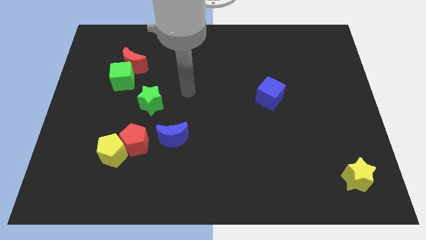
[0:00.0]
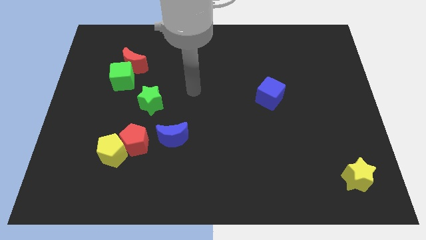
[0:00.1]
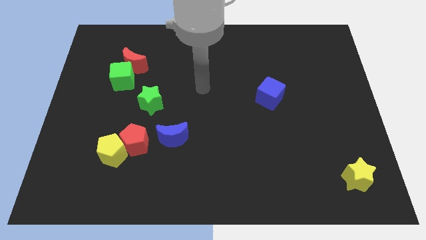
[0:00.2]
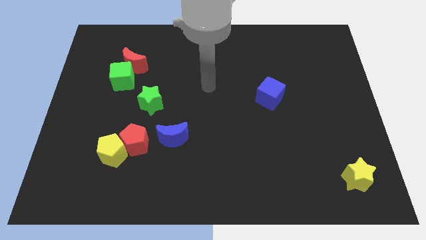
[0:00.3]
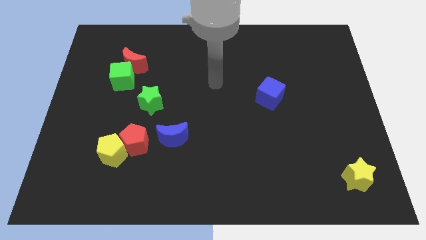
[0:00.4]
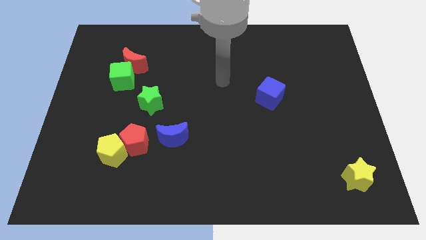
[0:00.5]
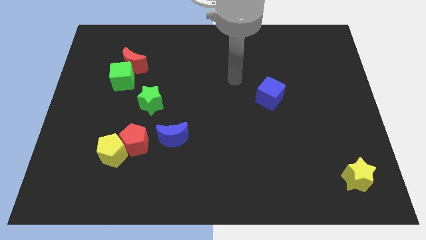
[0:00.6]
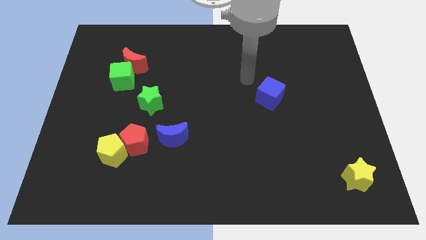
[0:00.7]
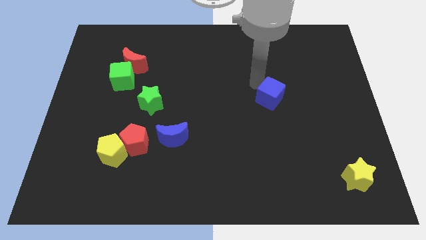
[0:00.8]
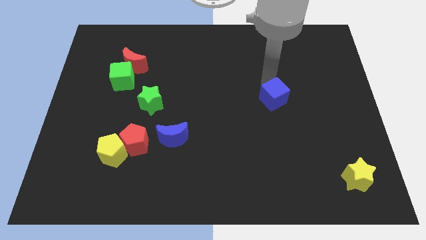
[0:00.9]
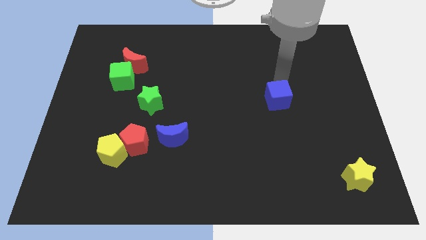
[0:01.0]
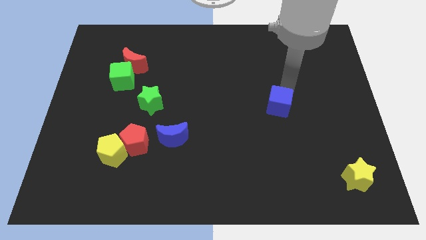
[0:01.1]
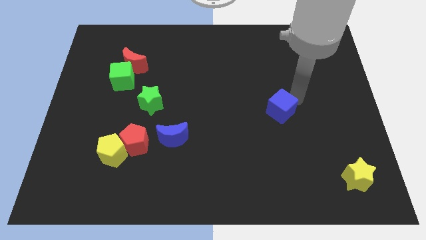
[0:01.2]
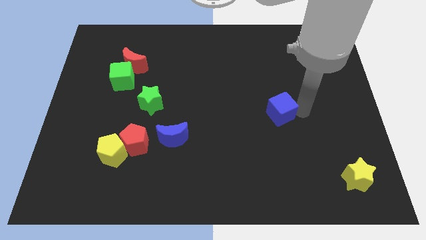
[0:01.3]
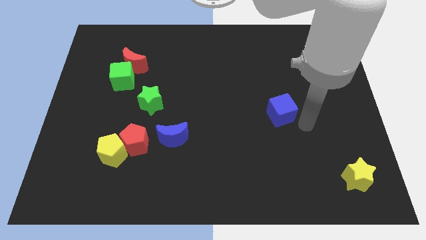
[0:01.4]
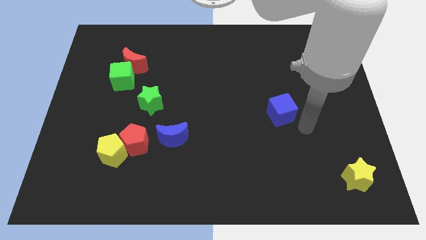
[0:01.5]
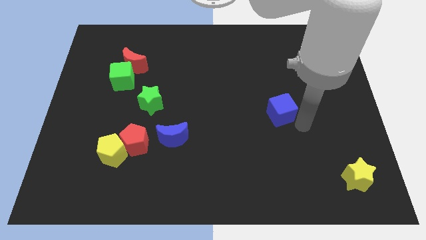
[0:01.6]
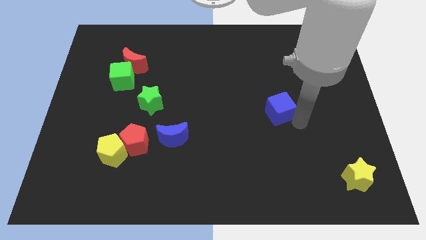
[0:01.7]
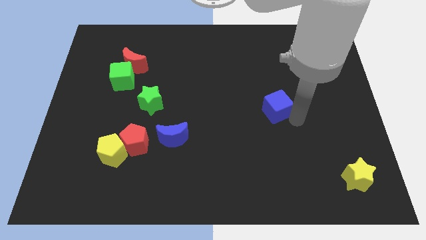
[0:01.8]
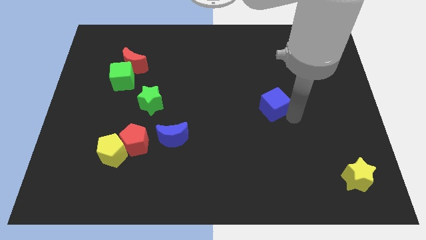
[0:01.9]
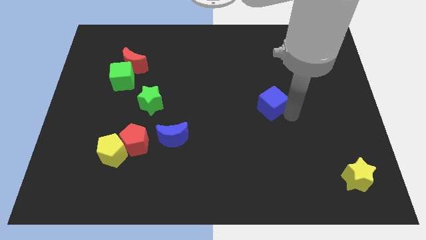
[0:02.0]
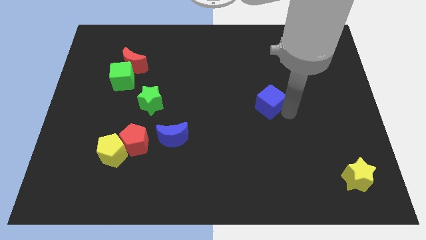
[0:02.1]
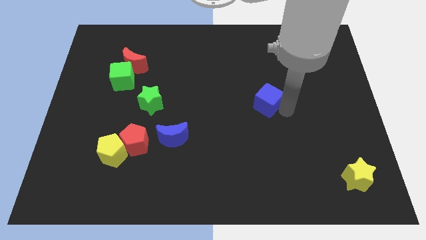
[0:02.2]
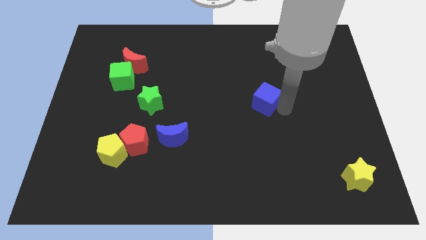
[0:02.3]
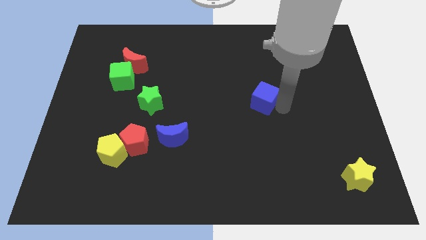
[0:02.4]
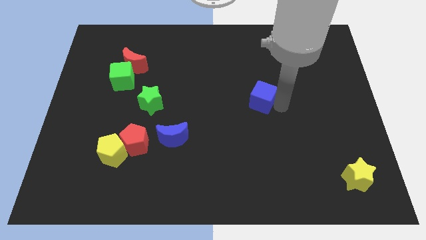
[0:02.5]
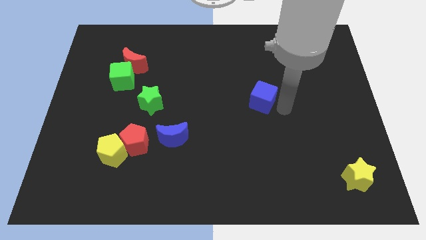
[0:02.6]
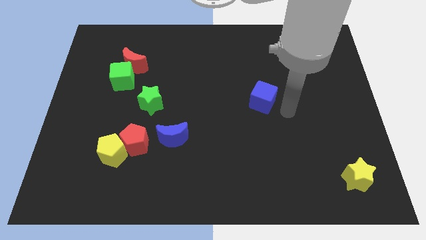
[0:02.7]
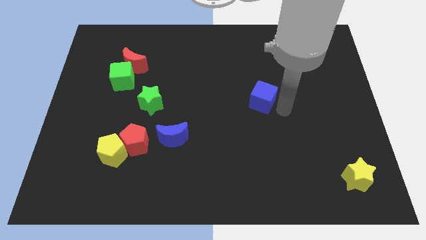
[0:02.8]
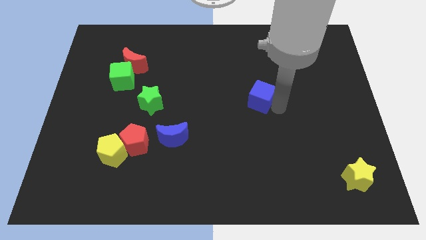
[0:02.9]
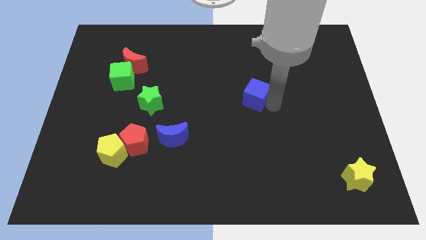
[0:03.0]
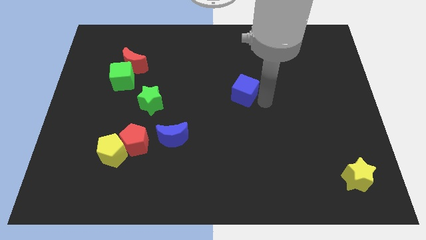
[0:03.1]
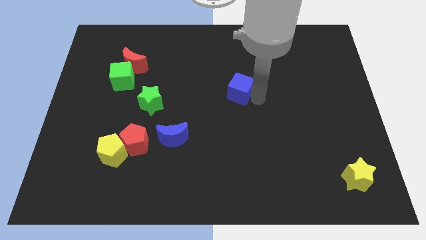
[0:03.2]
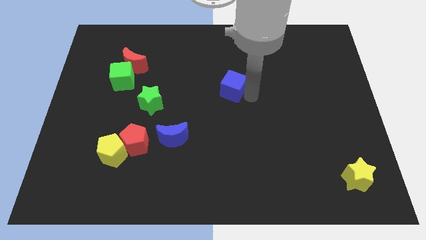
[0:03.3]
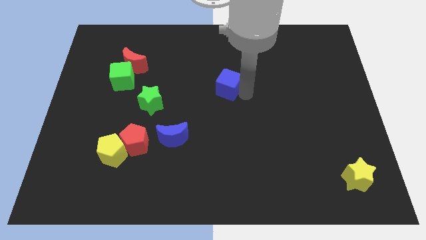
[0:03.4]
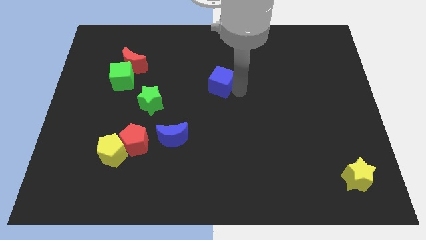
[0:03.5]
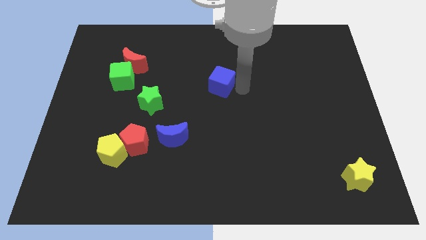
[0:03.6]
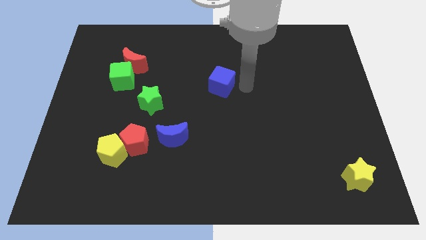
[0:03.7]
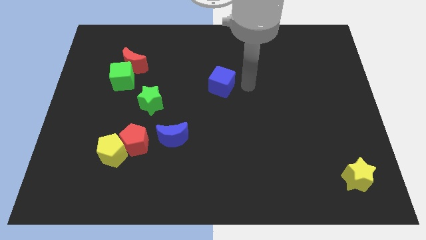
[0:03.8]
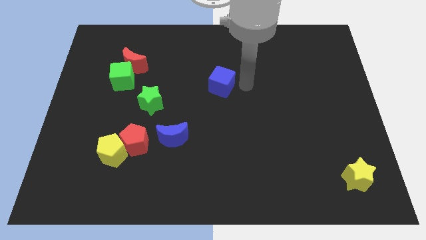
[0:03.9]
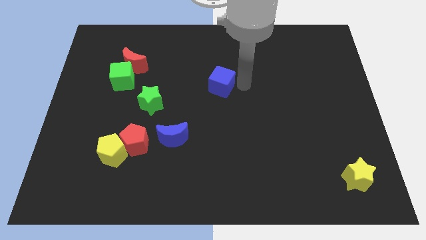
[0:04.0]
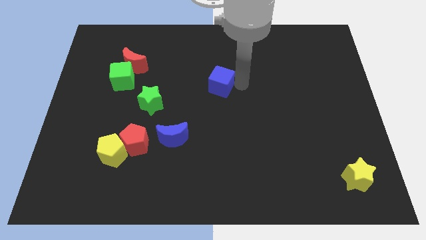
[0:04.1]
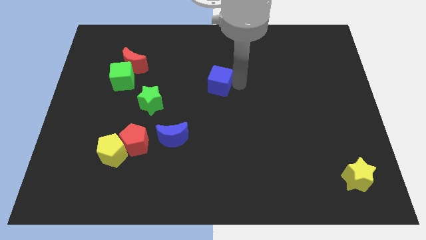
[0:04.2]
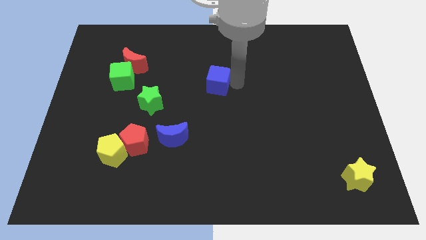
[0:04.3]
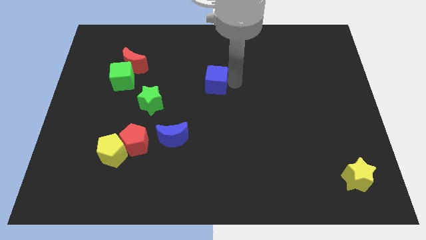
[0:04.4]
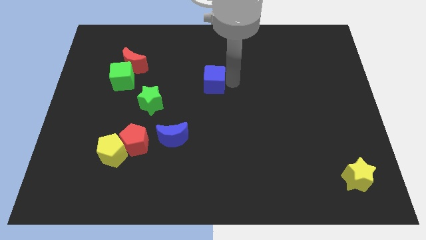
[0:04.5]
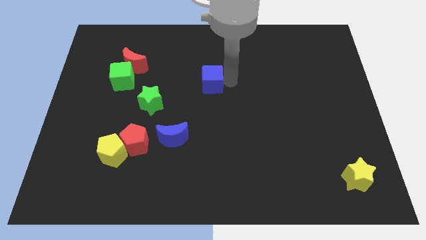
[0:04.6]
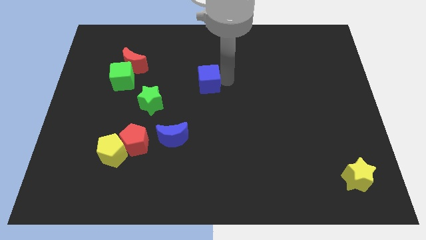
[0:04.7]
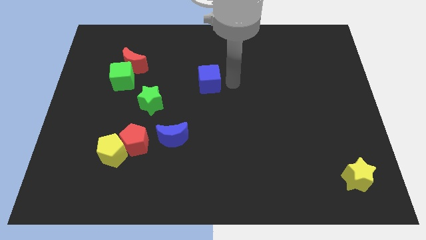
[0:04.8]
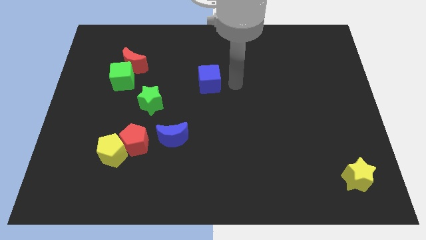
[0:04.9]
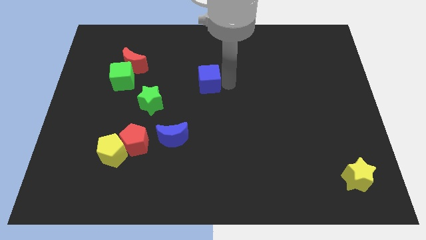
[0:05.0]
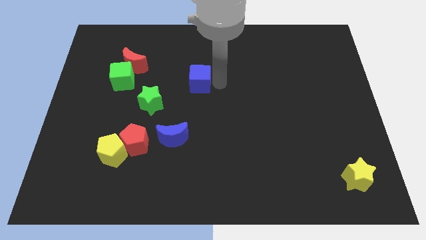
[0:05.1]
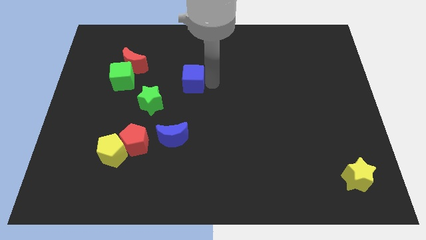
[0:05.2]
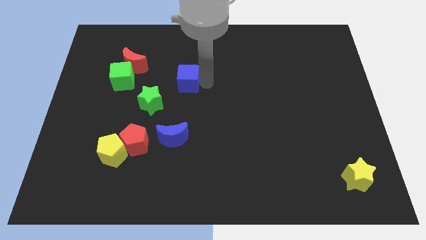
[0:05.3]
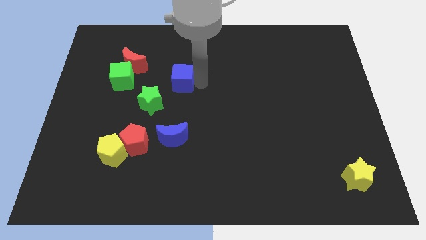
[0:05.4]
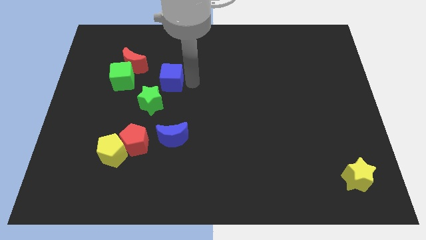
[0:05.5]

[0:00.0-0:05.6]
move the blue cube to the bottom right of the red moon

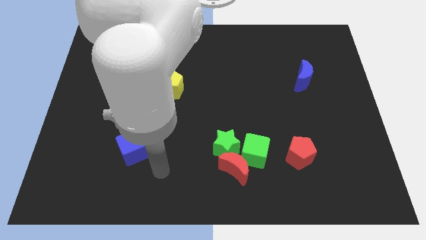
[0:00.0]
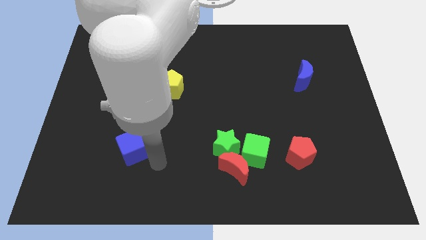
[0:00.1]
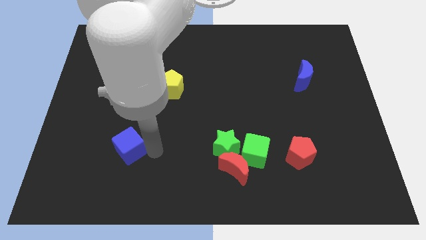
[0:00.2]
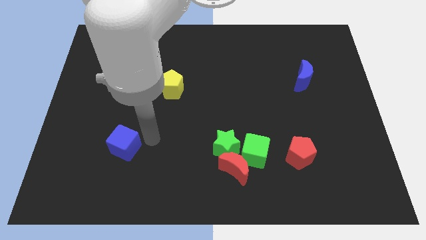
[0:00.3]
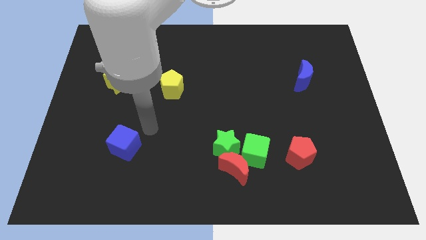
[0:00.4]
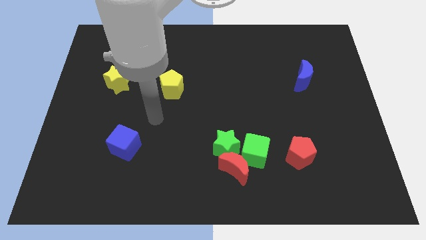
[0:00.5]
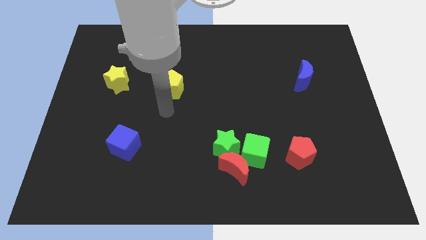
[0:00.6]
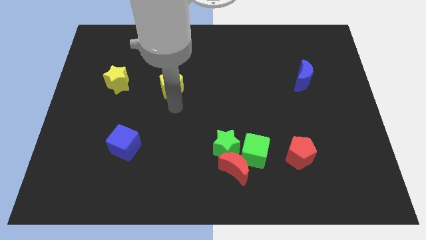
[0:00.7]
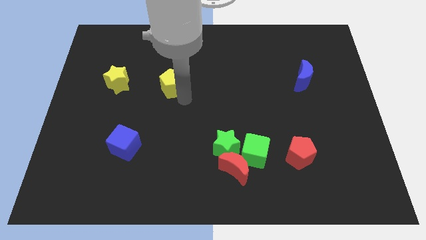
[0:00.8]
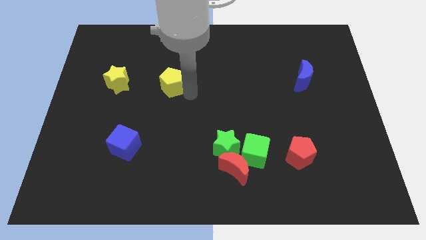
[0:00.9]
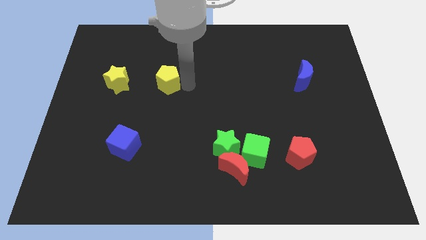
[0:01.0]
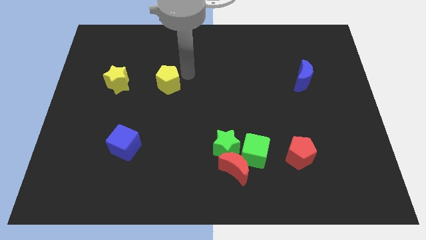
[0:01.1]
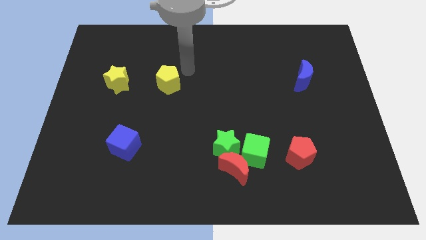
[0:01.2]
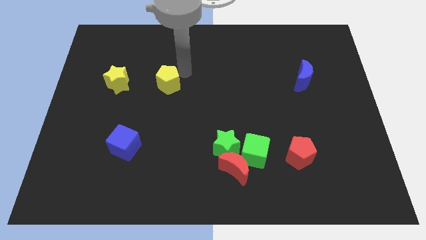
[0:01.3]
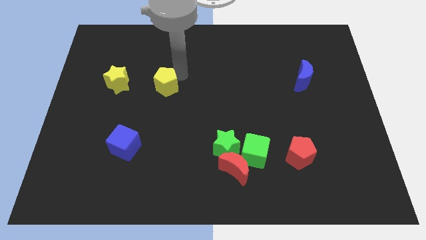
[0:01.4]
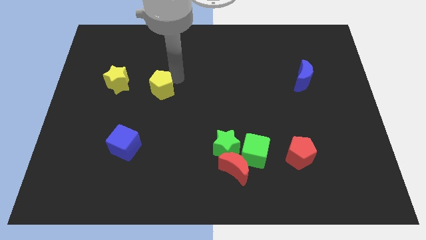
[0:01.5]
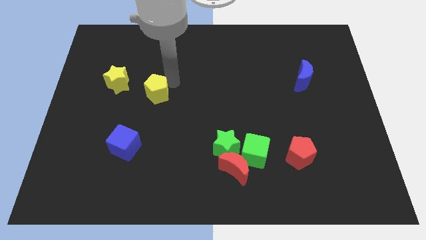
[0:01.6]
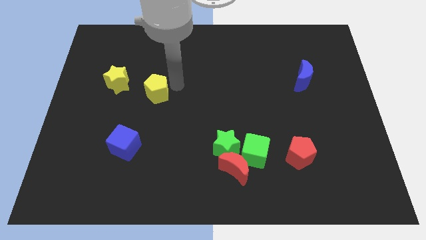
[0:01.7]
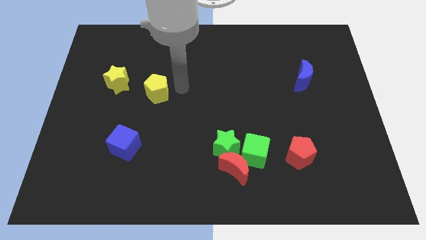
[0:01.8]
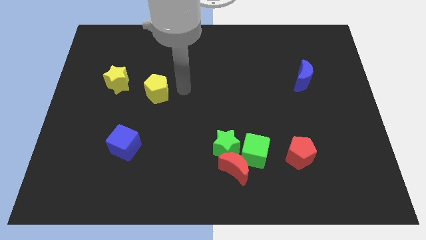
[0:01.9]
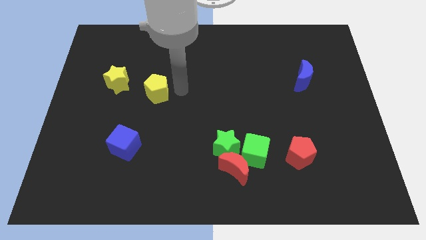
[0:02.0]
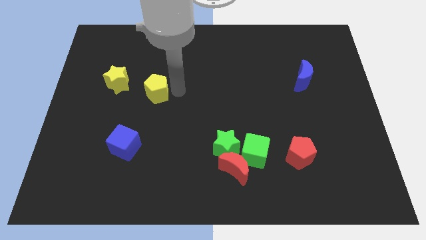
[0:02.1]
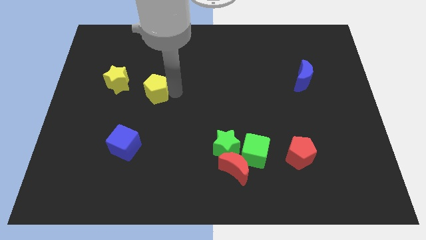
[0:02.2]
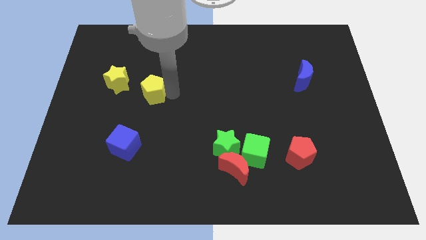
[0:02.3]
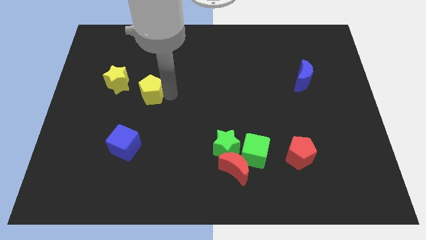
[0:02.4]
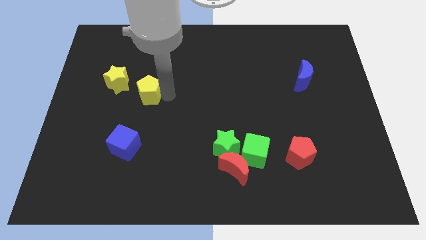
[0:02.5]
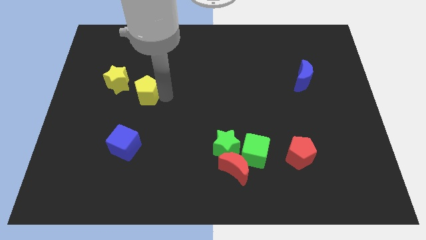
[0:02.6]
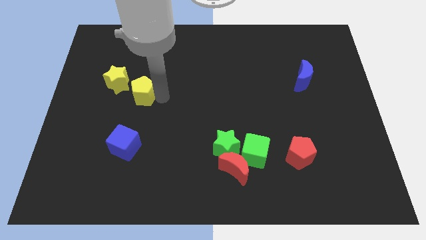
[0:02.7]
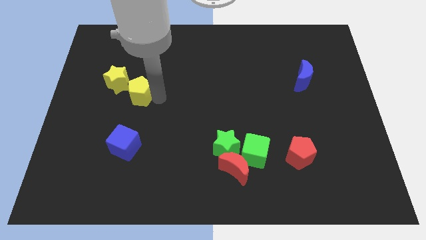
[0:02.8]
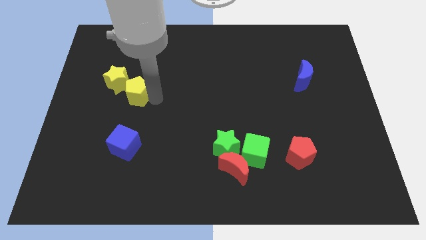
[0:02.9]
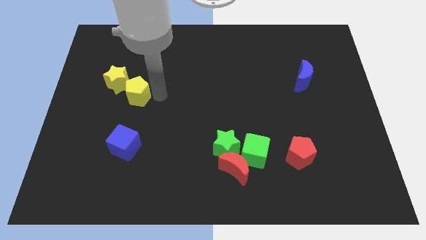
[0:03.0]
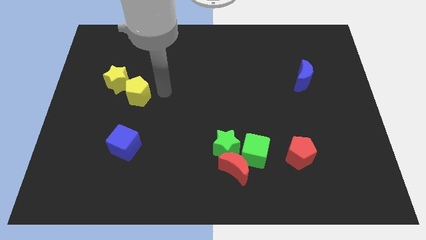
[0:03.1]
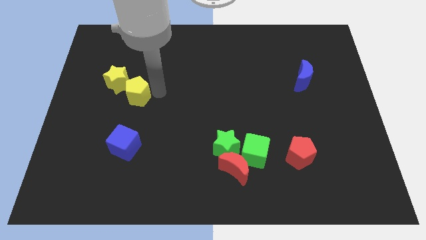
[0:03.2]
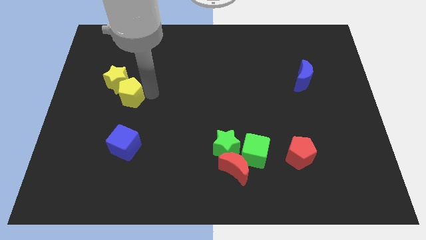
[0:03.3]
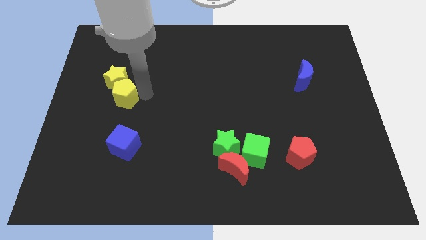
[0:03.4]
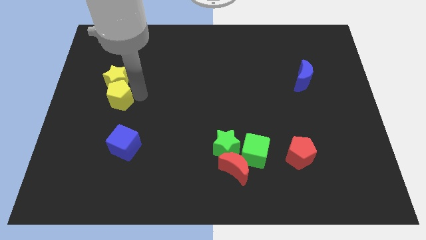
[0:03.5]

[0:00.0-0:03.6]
put the yellow pentagon to the bottom left of the yellow star
